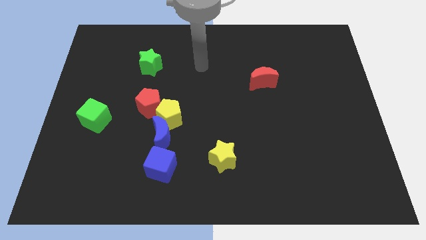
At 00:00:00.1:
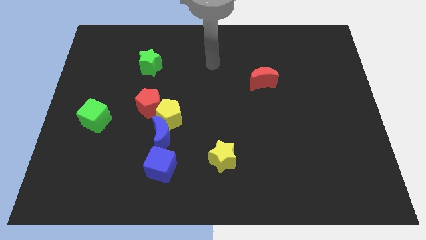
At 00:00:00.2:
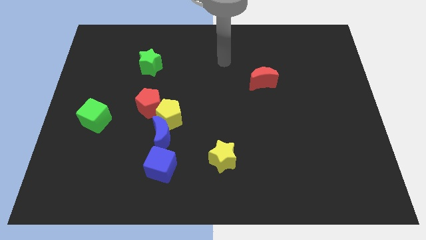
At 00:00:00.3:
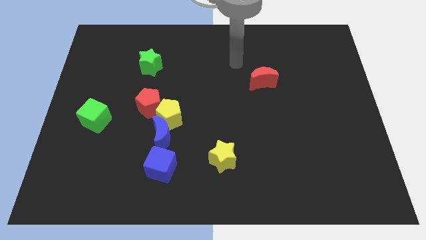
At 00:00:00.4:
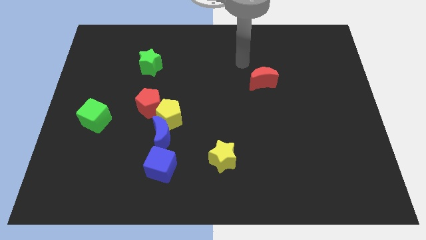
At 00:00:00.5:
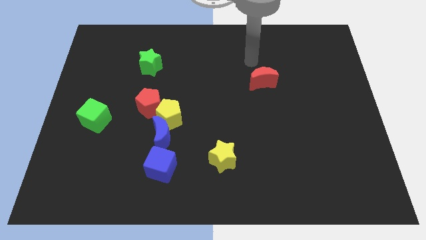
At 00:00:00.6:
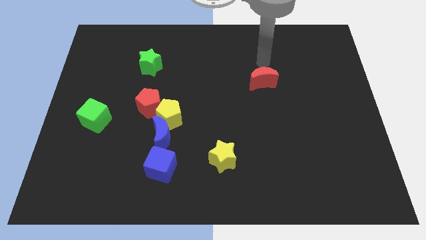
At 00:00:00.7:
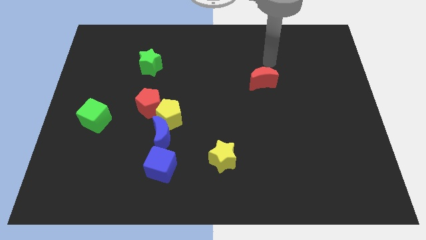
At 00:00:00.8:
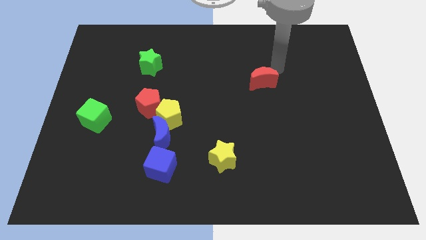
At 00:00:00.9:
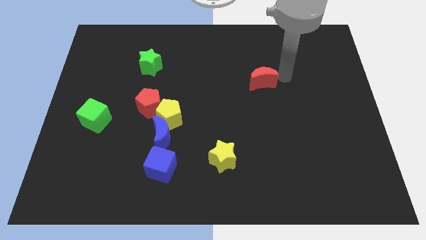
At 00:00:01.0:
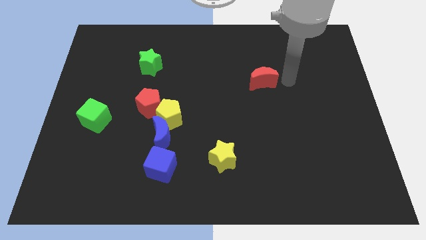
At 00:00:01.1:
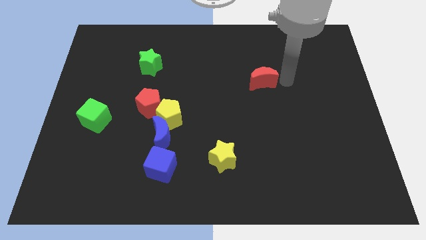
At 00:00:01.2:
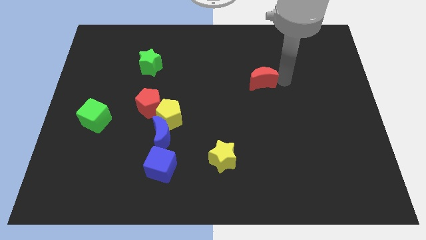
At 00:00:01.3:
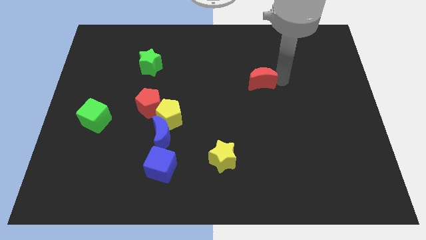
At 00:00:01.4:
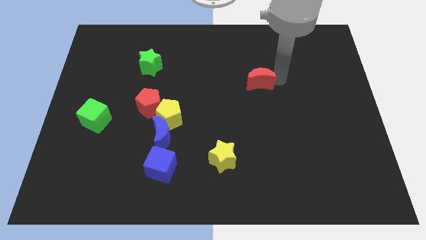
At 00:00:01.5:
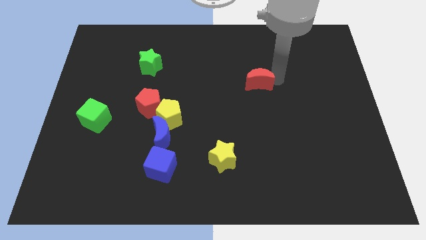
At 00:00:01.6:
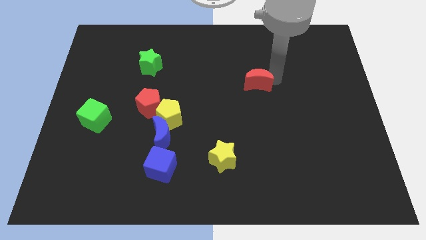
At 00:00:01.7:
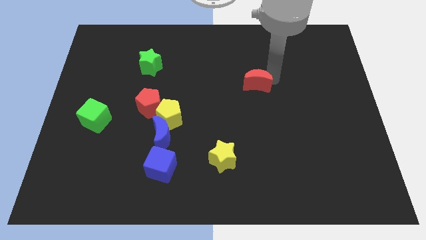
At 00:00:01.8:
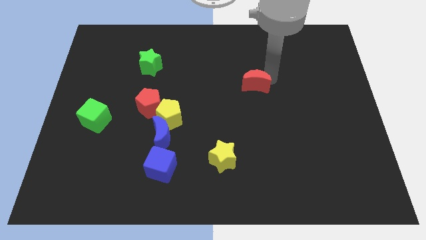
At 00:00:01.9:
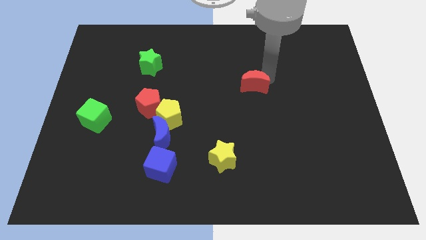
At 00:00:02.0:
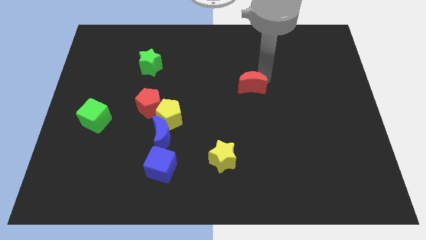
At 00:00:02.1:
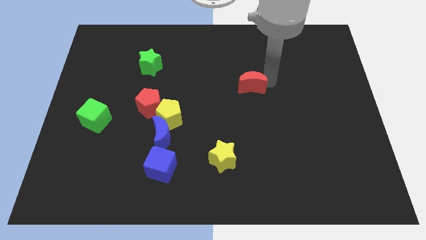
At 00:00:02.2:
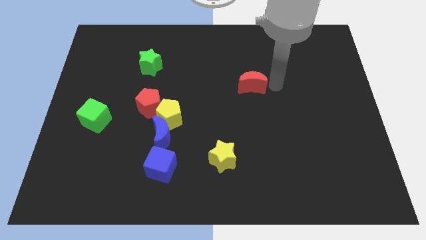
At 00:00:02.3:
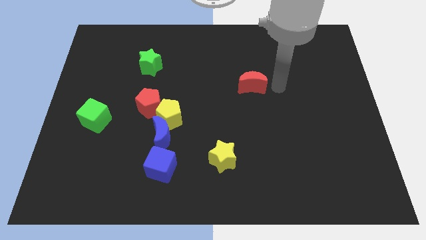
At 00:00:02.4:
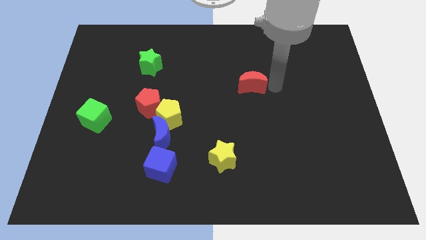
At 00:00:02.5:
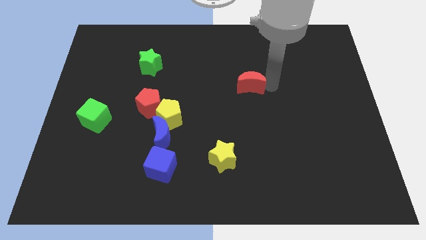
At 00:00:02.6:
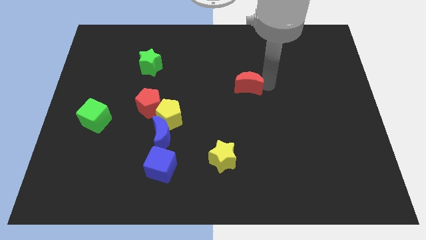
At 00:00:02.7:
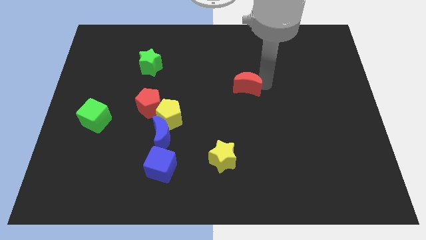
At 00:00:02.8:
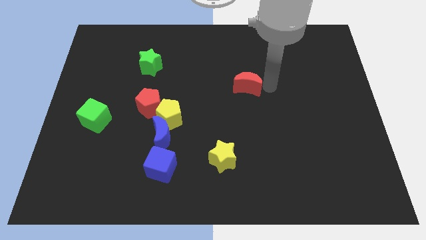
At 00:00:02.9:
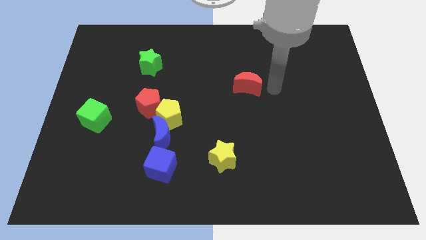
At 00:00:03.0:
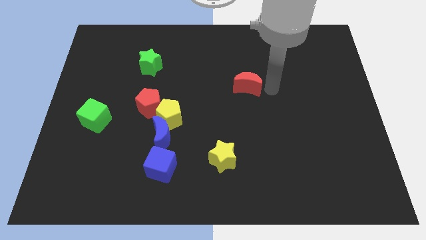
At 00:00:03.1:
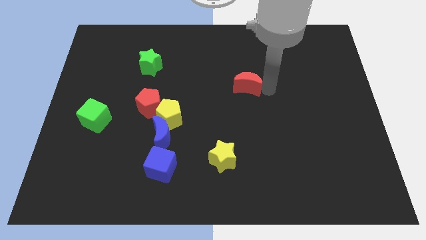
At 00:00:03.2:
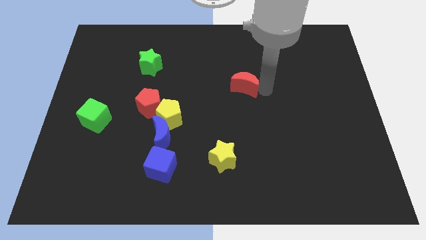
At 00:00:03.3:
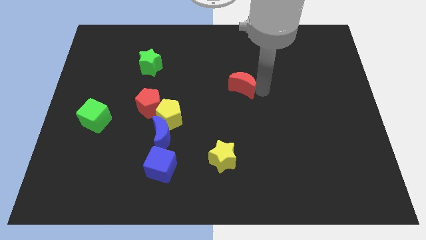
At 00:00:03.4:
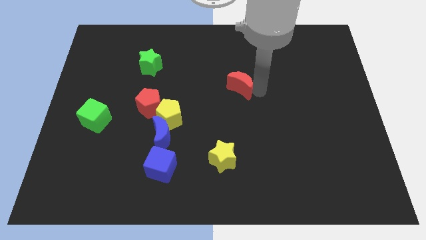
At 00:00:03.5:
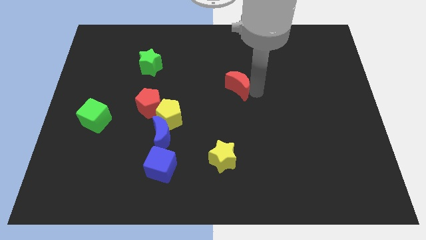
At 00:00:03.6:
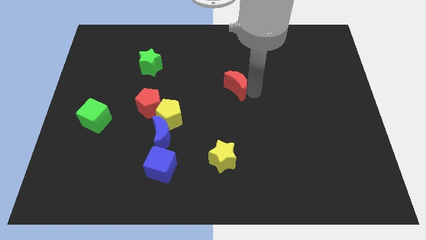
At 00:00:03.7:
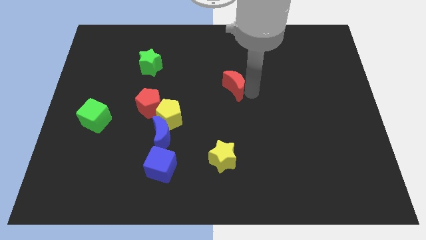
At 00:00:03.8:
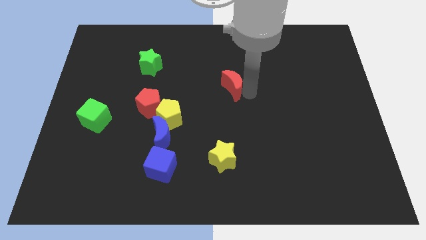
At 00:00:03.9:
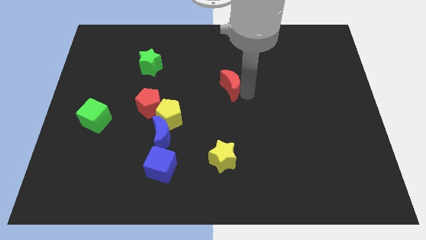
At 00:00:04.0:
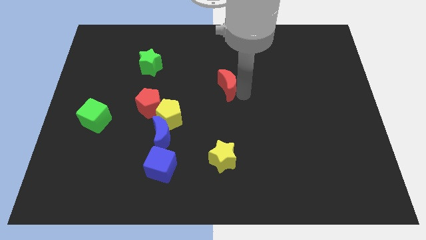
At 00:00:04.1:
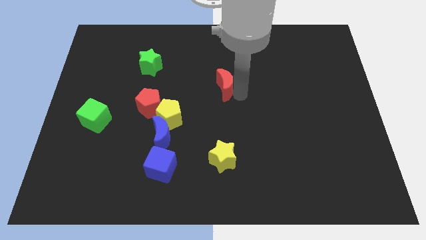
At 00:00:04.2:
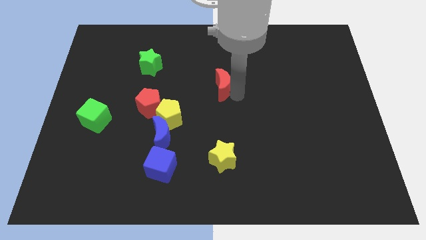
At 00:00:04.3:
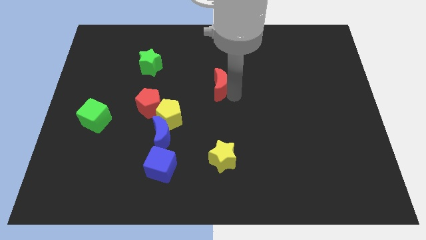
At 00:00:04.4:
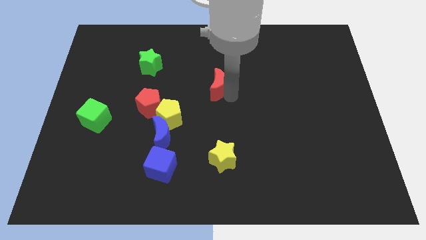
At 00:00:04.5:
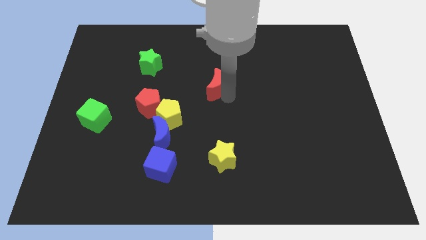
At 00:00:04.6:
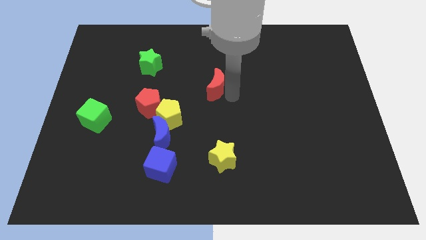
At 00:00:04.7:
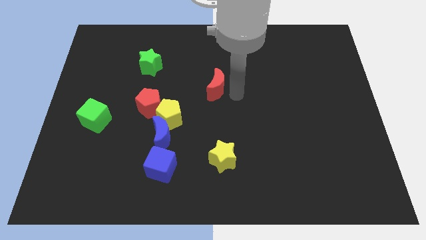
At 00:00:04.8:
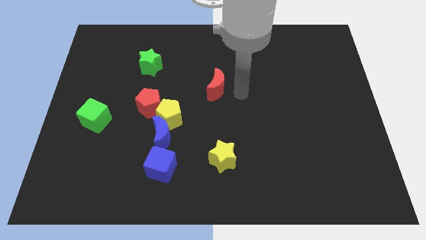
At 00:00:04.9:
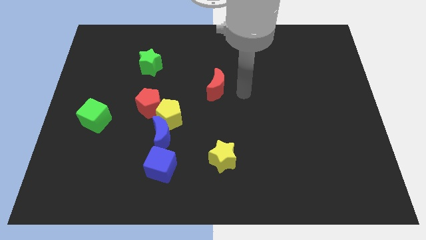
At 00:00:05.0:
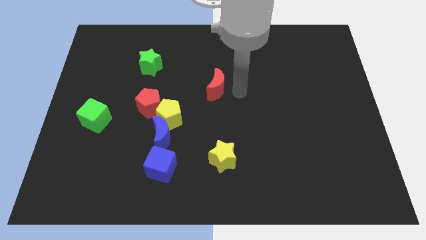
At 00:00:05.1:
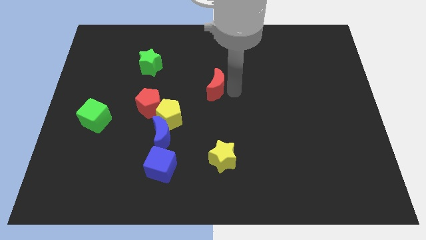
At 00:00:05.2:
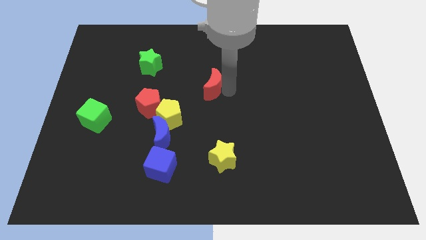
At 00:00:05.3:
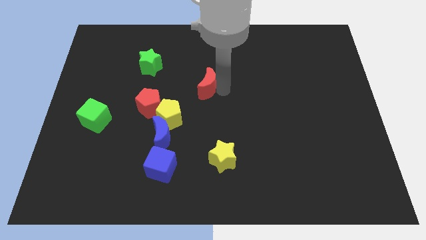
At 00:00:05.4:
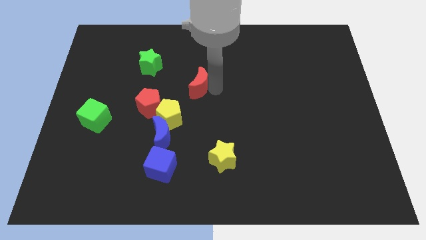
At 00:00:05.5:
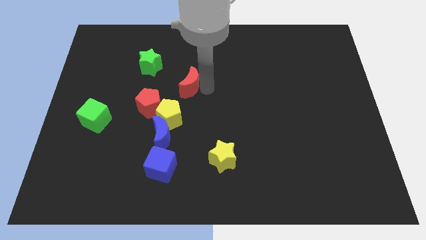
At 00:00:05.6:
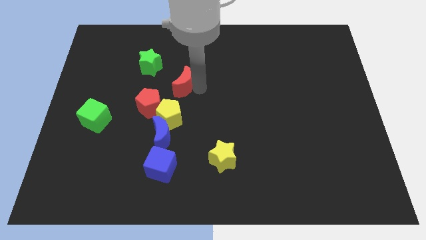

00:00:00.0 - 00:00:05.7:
push the red moon diagonally down and to the right of the green star

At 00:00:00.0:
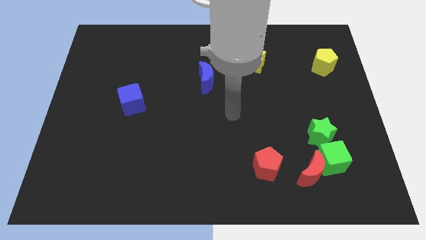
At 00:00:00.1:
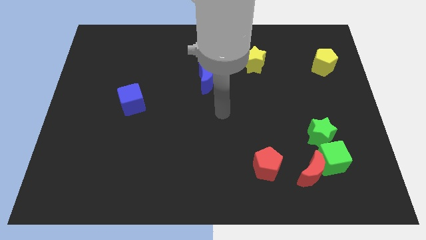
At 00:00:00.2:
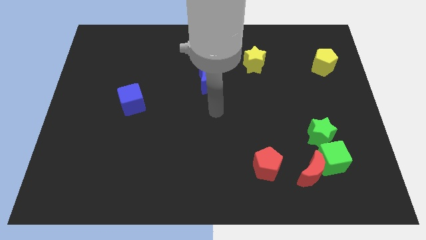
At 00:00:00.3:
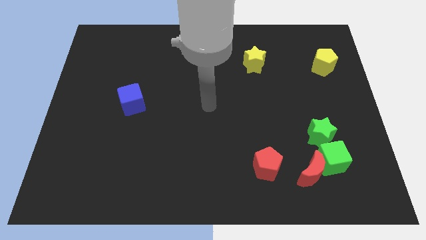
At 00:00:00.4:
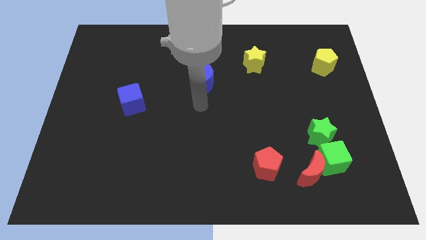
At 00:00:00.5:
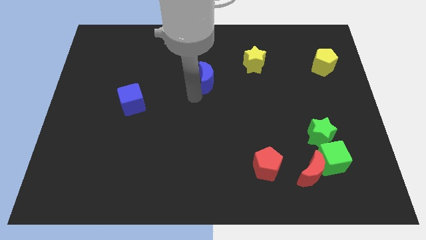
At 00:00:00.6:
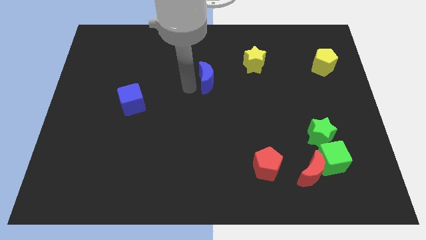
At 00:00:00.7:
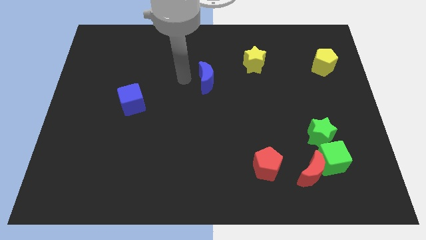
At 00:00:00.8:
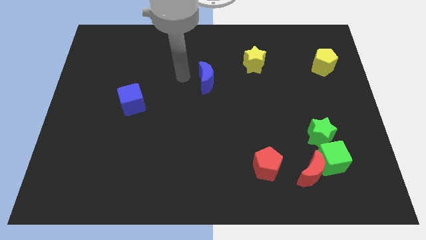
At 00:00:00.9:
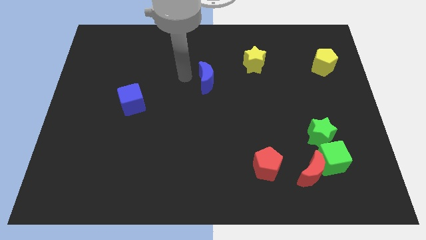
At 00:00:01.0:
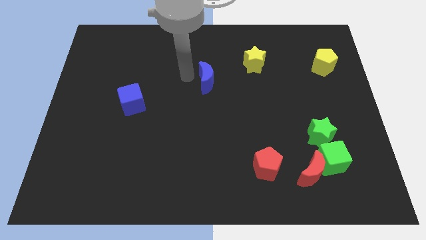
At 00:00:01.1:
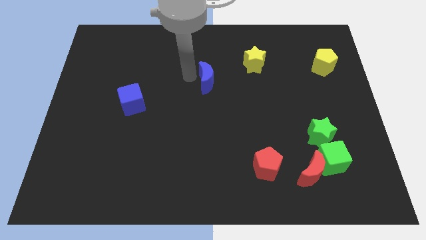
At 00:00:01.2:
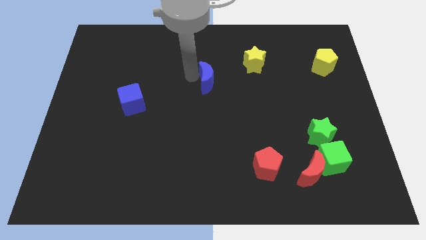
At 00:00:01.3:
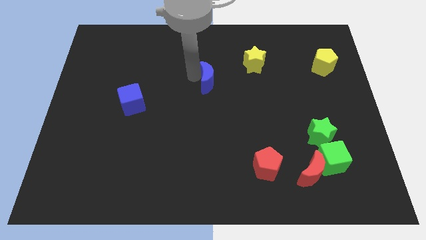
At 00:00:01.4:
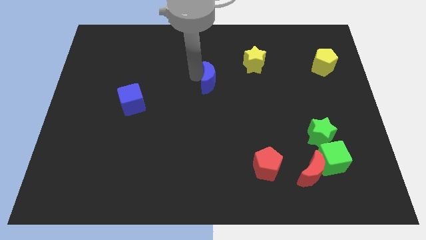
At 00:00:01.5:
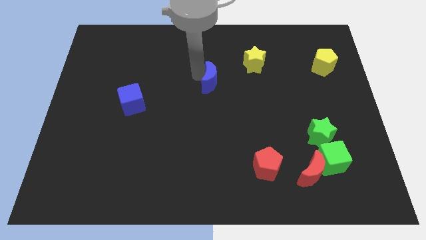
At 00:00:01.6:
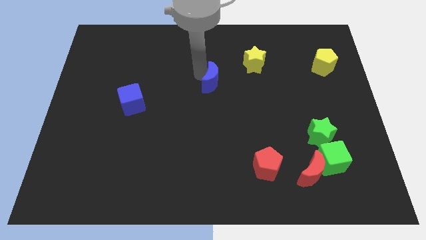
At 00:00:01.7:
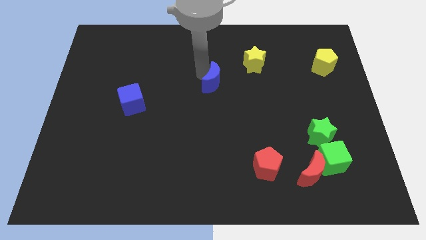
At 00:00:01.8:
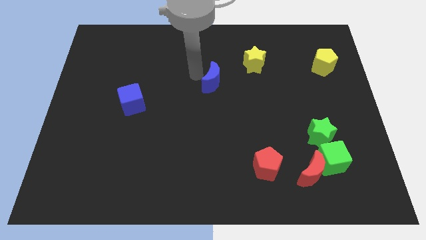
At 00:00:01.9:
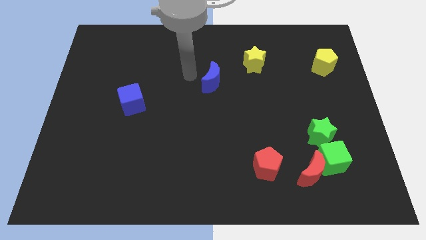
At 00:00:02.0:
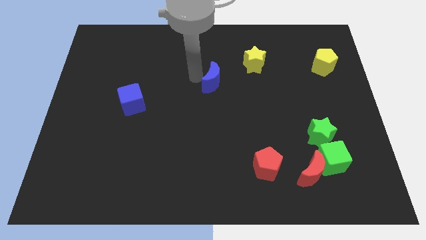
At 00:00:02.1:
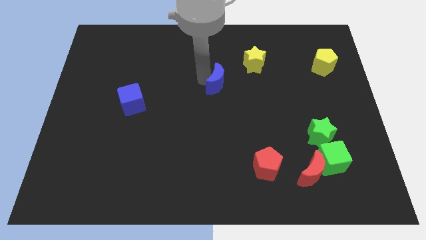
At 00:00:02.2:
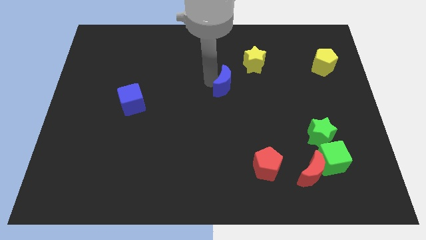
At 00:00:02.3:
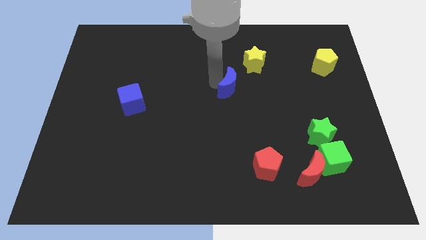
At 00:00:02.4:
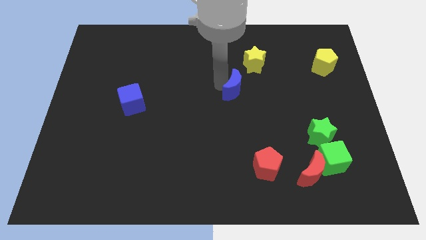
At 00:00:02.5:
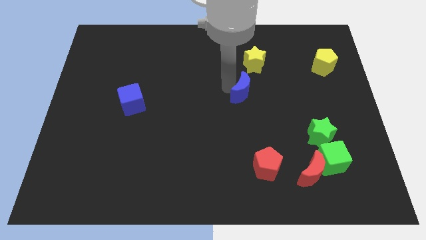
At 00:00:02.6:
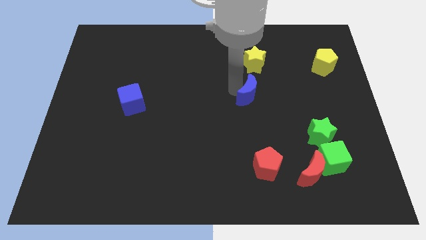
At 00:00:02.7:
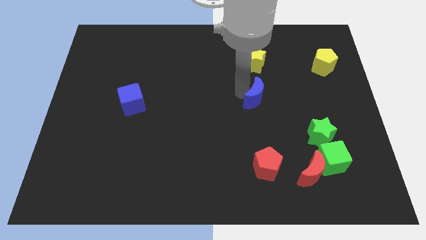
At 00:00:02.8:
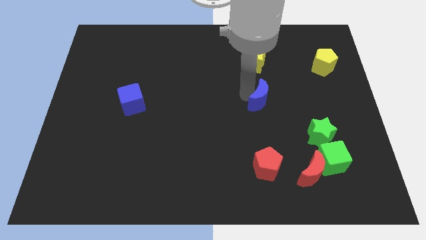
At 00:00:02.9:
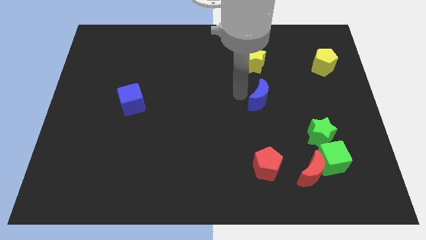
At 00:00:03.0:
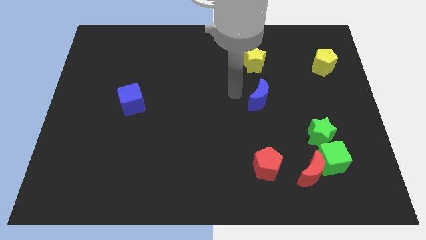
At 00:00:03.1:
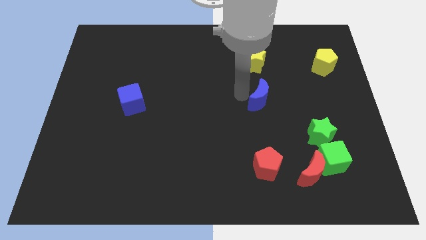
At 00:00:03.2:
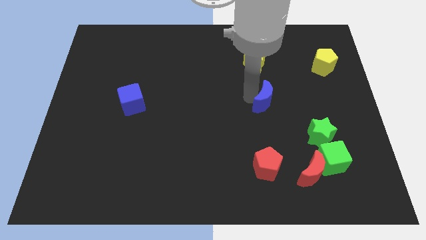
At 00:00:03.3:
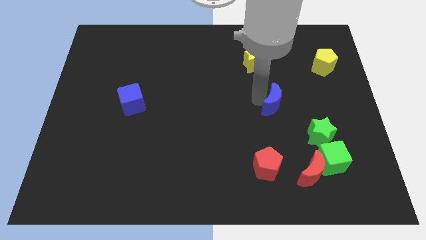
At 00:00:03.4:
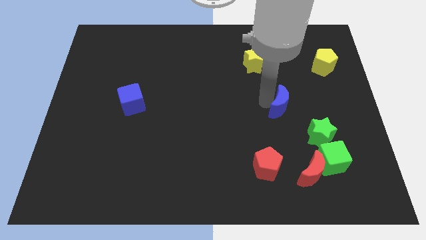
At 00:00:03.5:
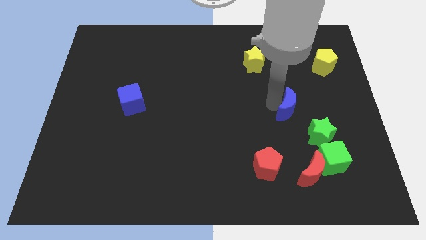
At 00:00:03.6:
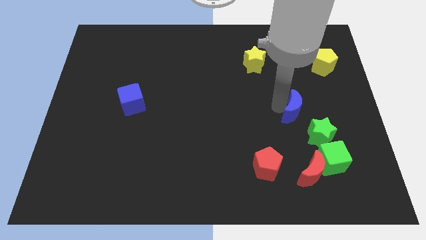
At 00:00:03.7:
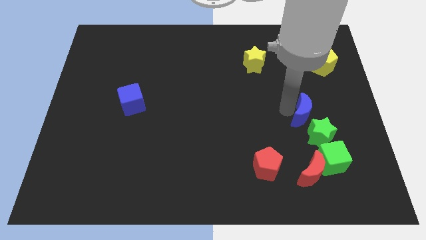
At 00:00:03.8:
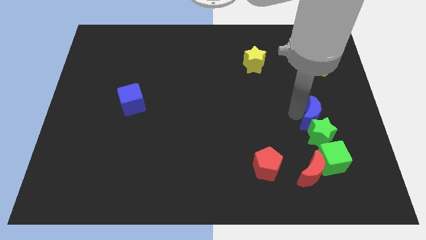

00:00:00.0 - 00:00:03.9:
push the blue moon diagonally up and to the right of the green star
